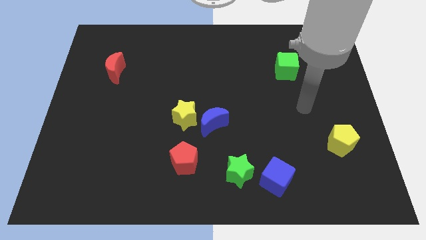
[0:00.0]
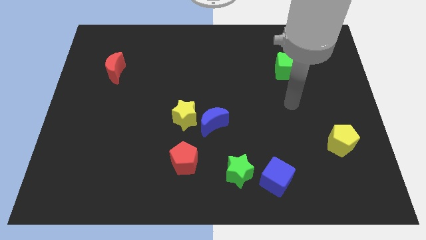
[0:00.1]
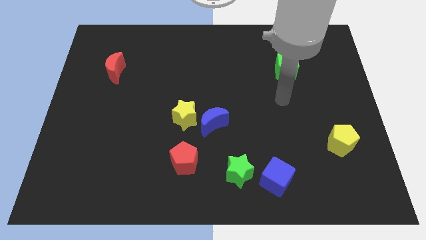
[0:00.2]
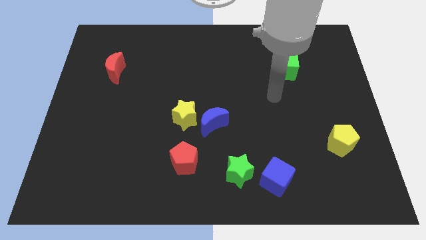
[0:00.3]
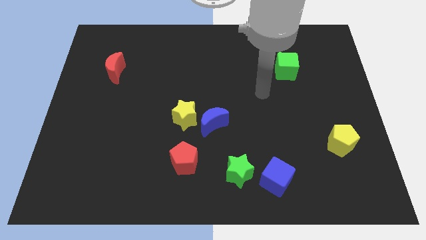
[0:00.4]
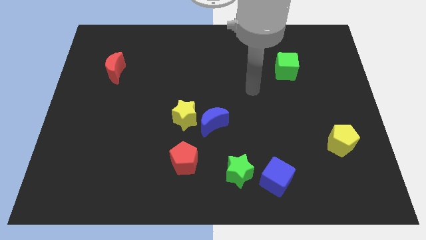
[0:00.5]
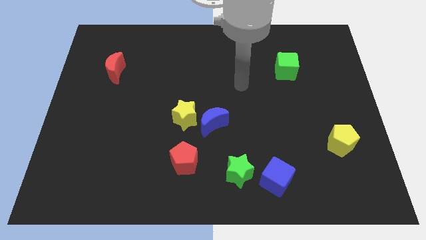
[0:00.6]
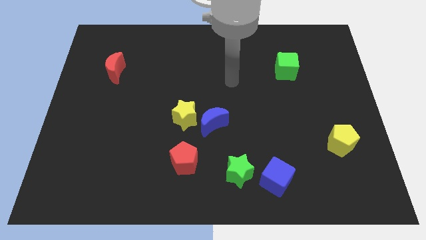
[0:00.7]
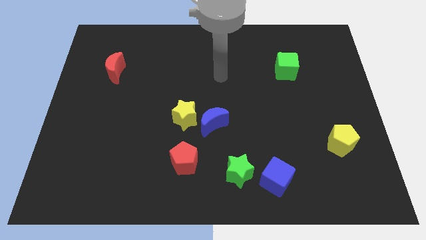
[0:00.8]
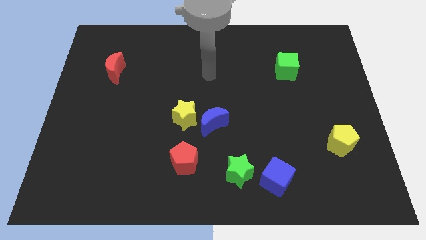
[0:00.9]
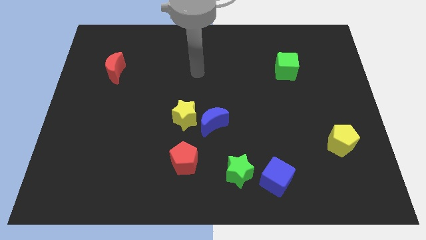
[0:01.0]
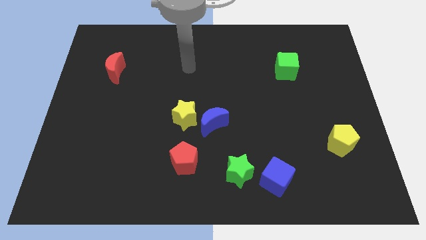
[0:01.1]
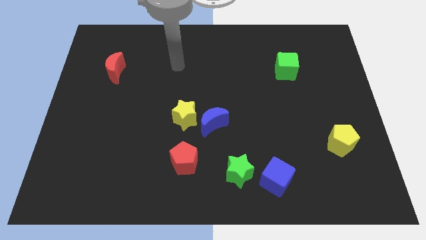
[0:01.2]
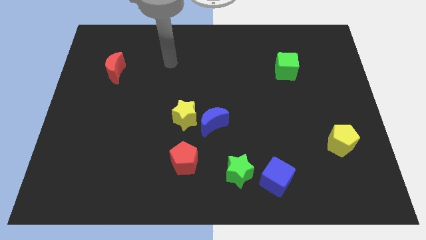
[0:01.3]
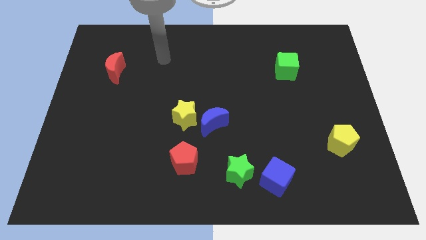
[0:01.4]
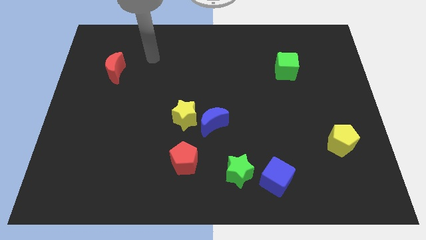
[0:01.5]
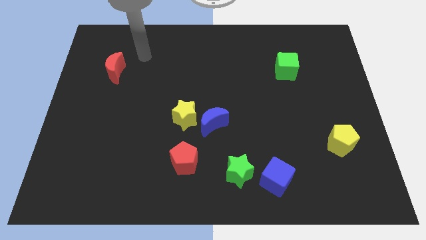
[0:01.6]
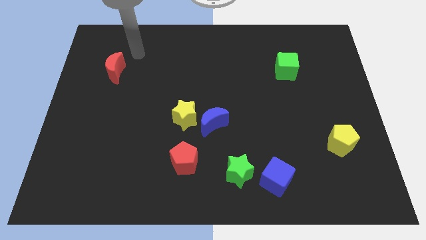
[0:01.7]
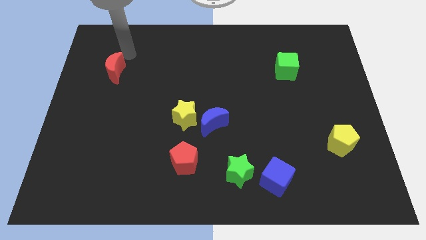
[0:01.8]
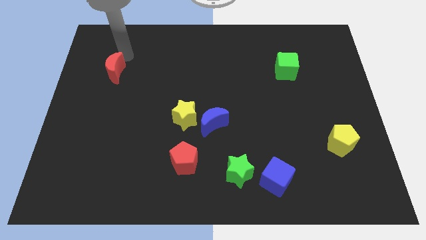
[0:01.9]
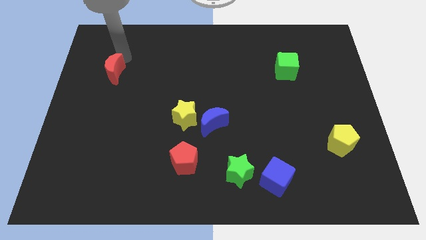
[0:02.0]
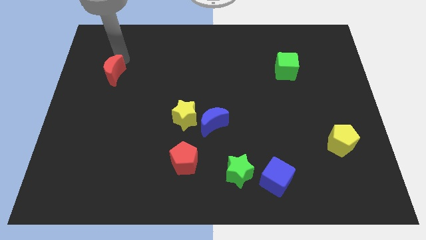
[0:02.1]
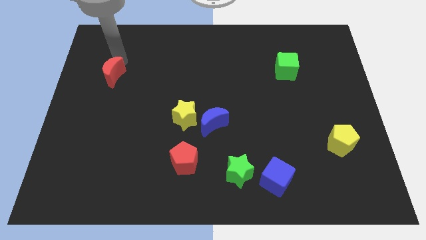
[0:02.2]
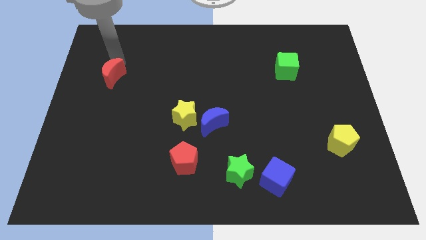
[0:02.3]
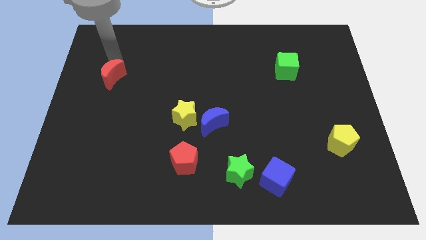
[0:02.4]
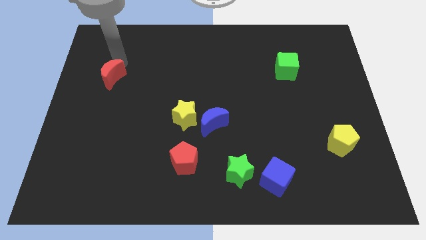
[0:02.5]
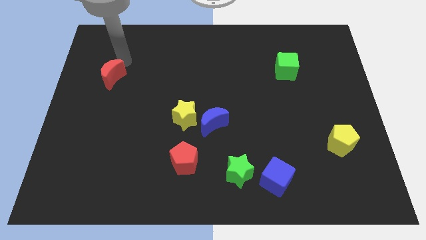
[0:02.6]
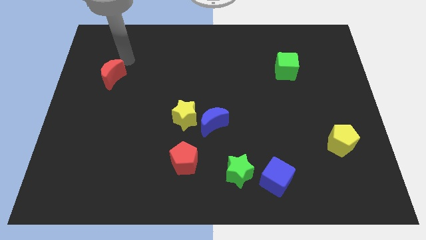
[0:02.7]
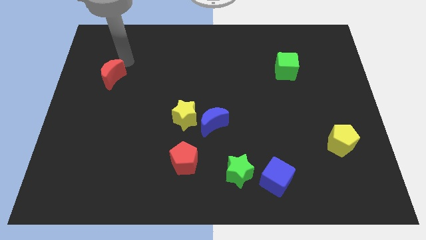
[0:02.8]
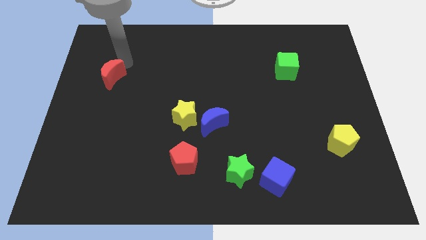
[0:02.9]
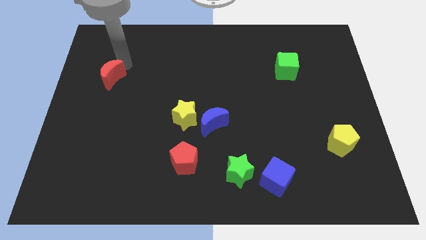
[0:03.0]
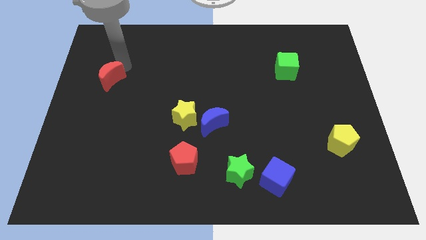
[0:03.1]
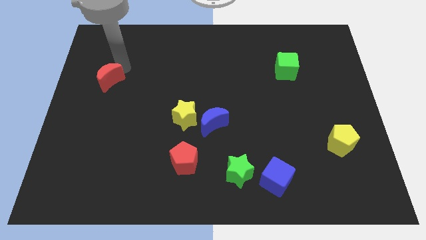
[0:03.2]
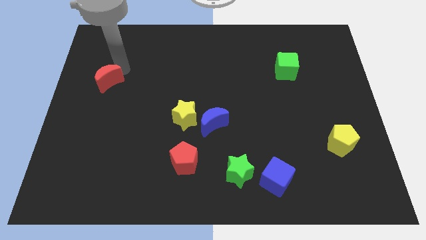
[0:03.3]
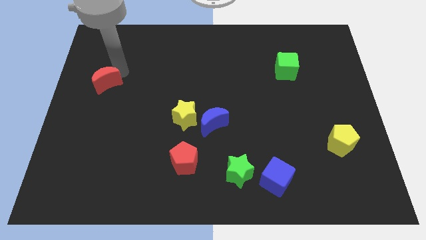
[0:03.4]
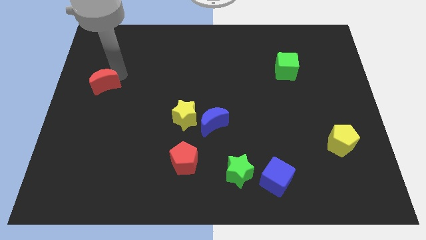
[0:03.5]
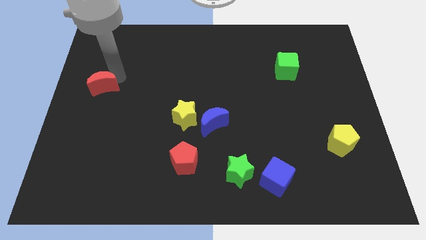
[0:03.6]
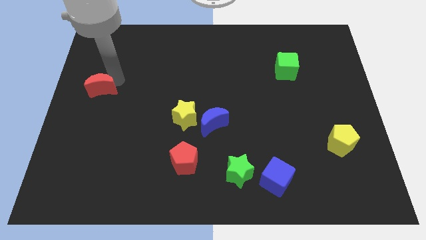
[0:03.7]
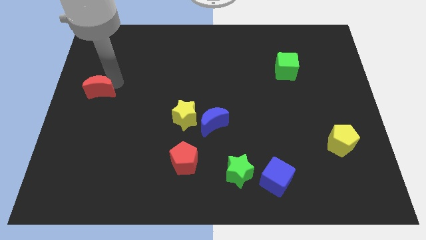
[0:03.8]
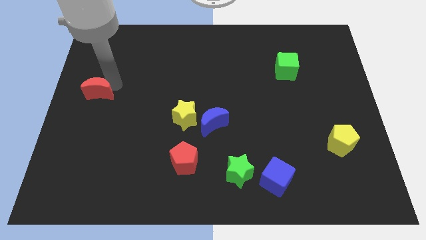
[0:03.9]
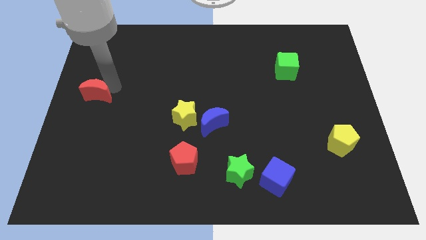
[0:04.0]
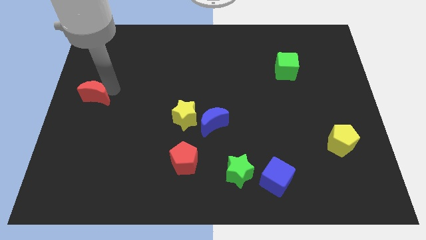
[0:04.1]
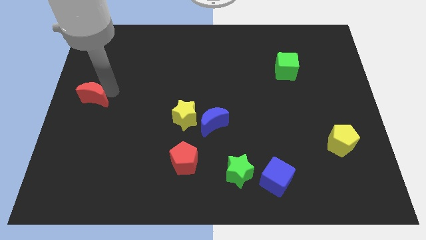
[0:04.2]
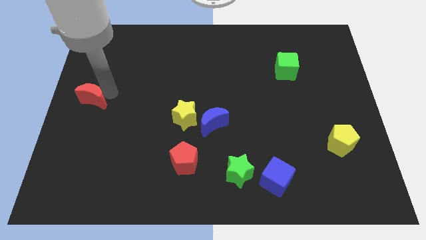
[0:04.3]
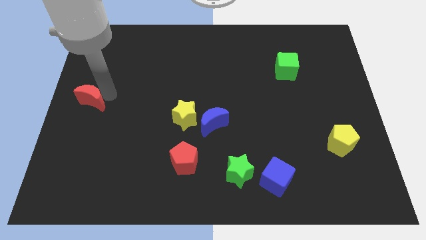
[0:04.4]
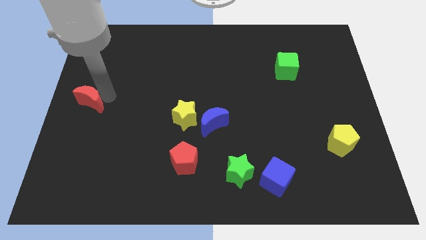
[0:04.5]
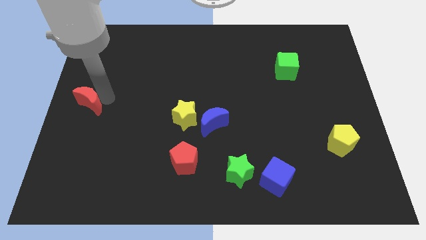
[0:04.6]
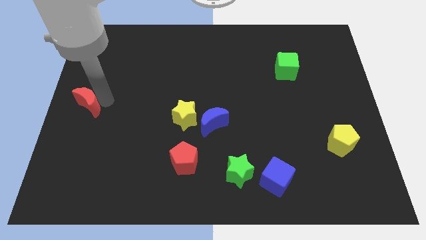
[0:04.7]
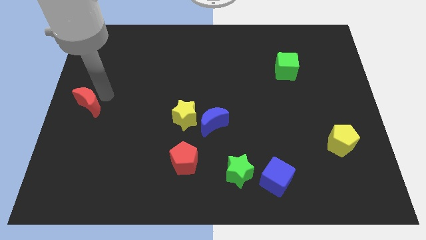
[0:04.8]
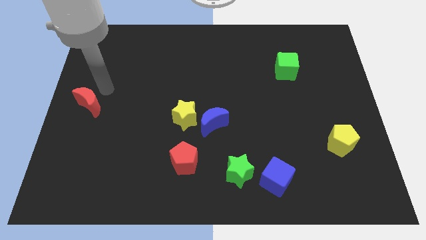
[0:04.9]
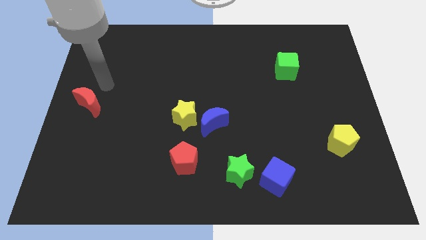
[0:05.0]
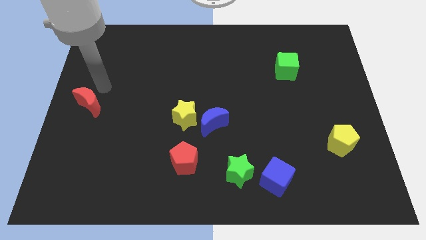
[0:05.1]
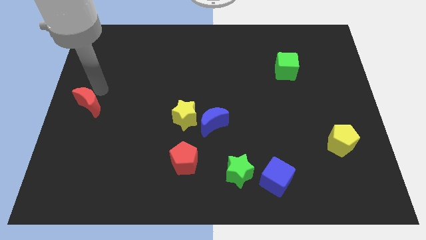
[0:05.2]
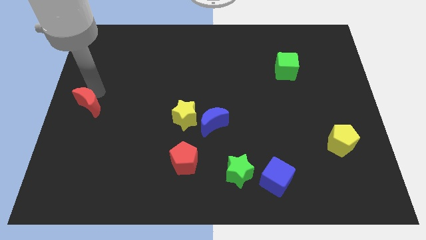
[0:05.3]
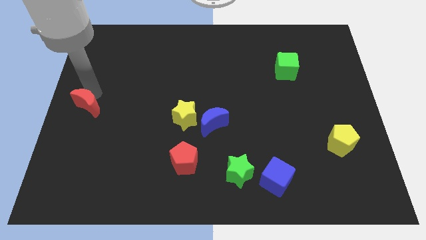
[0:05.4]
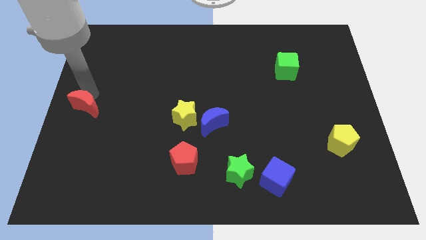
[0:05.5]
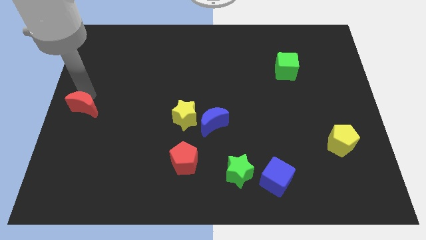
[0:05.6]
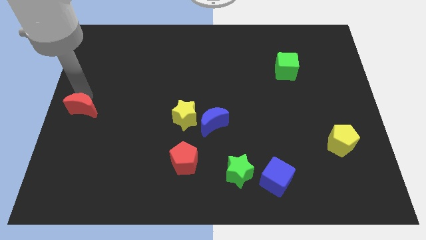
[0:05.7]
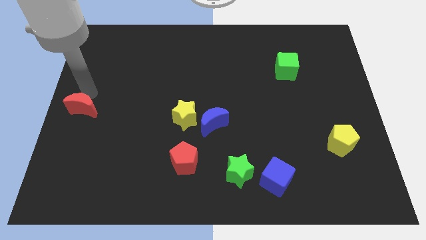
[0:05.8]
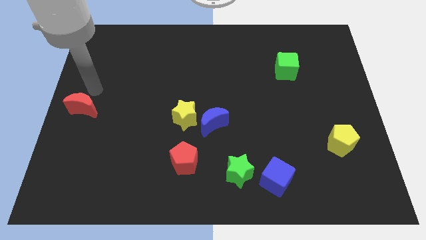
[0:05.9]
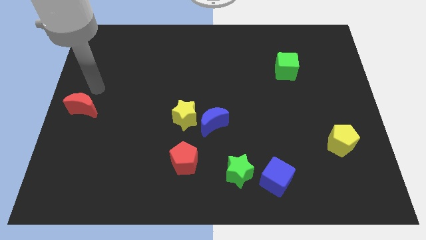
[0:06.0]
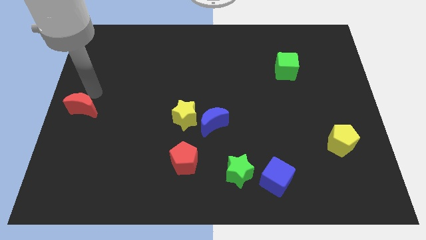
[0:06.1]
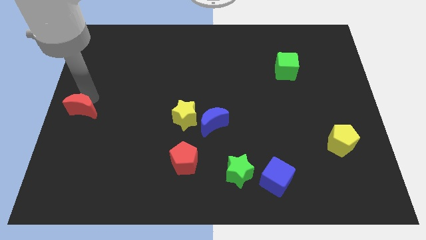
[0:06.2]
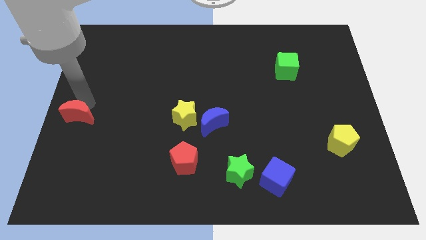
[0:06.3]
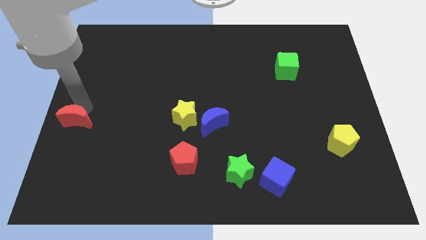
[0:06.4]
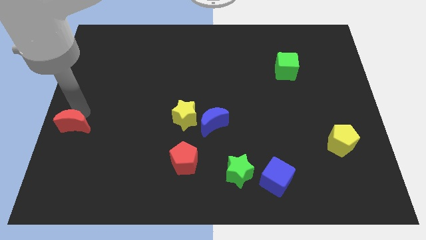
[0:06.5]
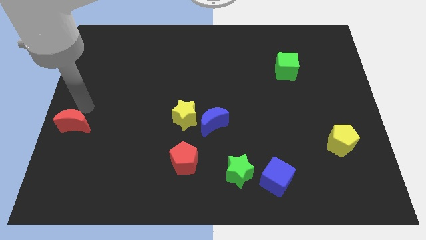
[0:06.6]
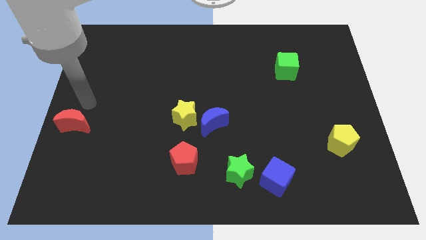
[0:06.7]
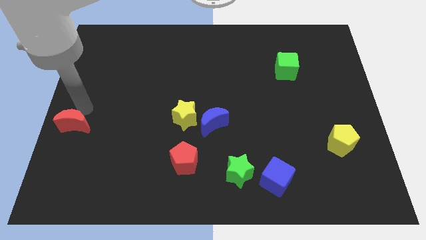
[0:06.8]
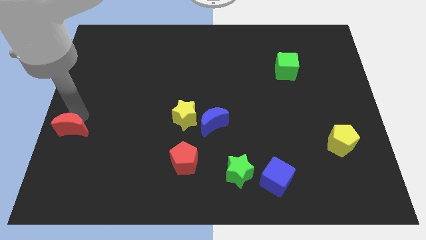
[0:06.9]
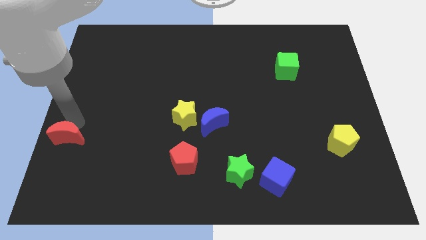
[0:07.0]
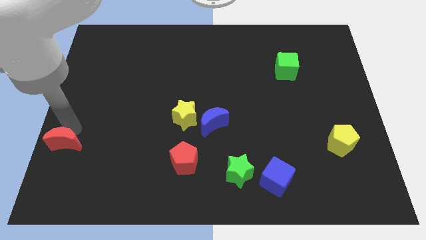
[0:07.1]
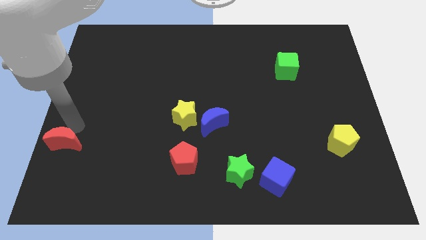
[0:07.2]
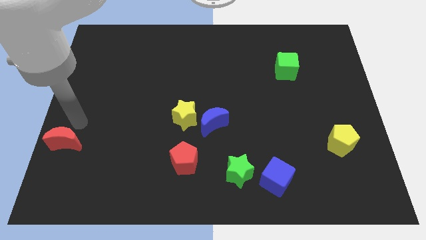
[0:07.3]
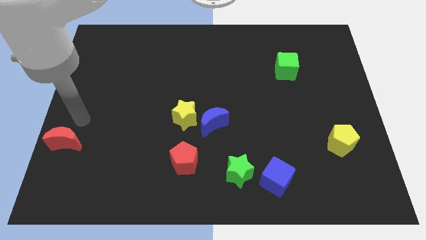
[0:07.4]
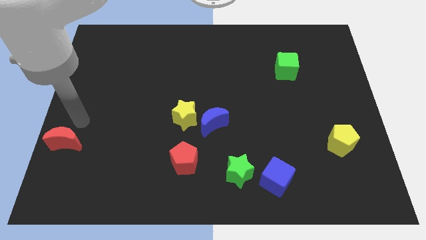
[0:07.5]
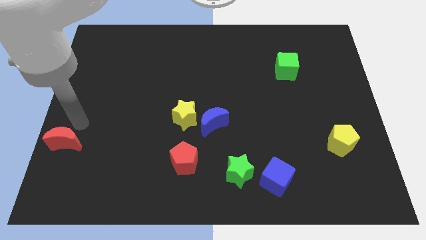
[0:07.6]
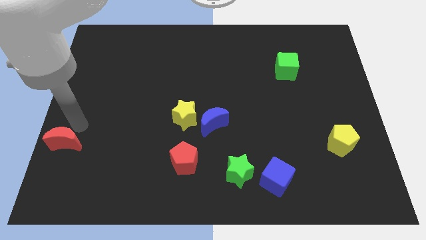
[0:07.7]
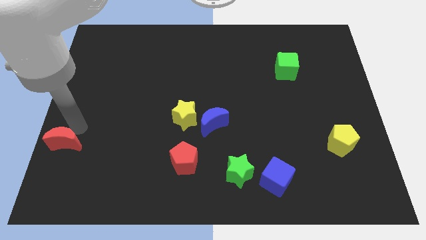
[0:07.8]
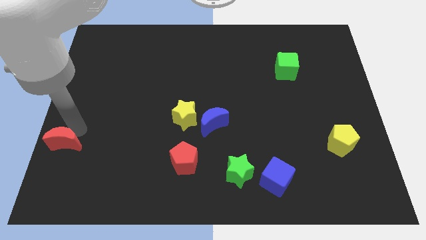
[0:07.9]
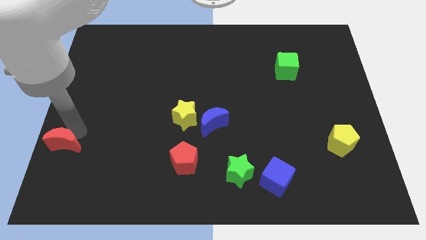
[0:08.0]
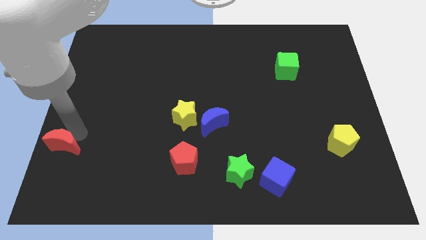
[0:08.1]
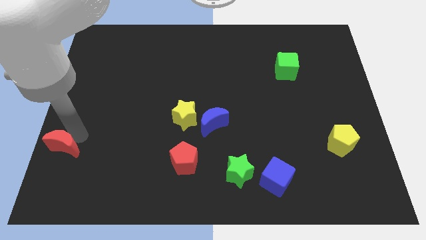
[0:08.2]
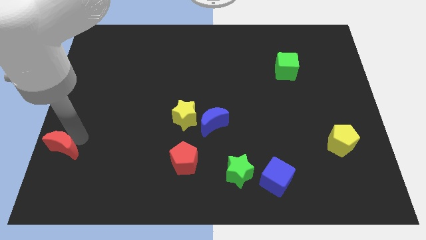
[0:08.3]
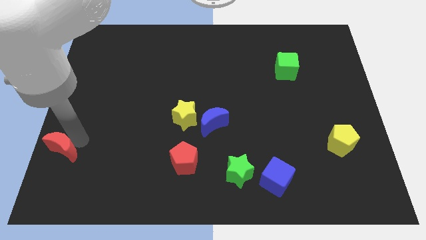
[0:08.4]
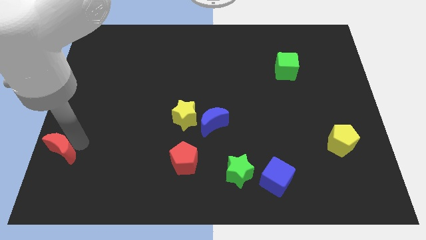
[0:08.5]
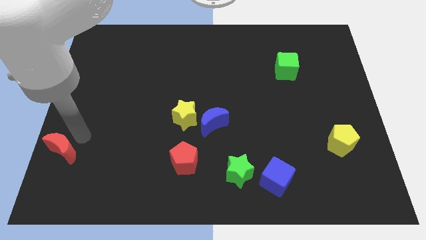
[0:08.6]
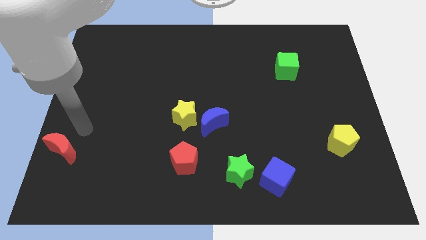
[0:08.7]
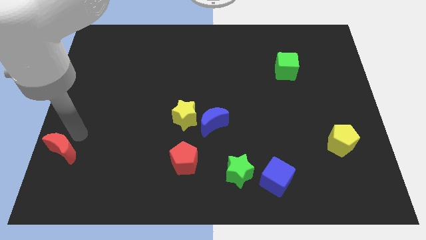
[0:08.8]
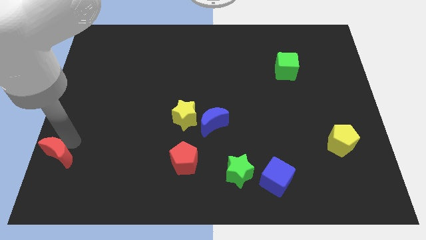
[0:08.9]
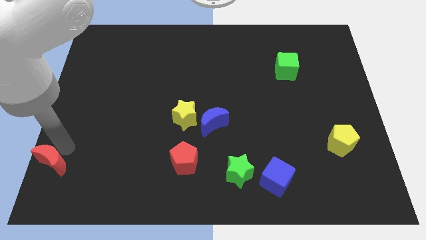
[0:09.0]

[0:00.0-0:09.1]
slide the red moon to the lower left corner
